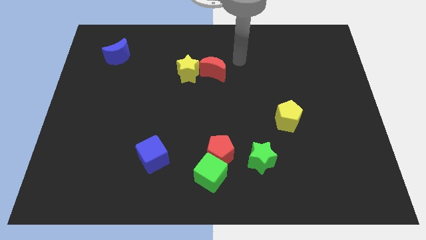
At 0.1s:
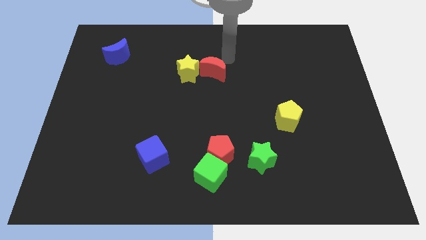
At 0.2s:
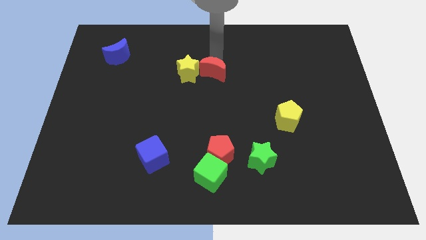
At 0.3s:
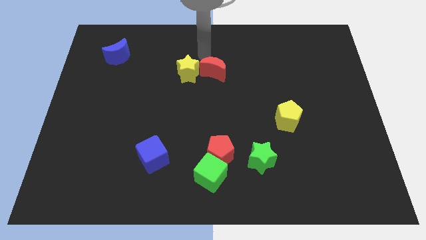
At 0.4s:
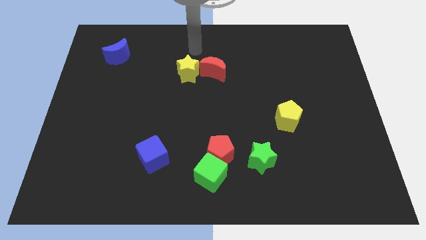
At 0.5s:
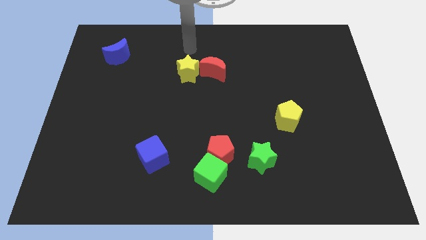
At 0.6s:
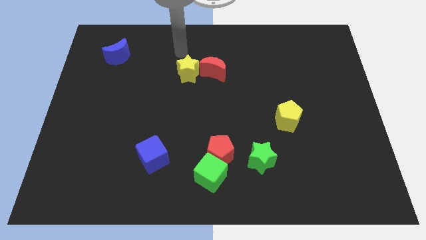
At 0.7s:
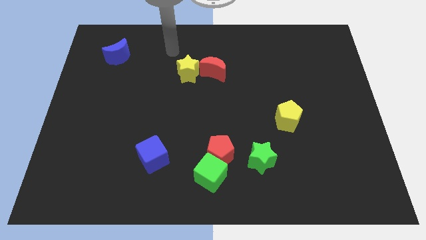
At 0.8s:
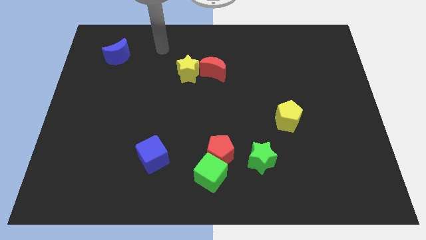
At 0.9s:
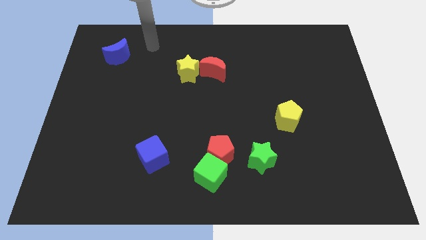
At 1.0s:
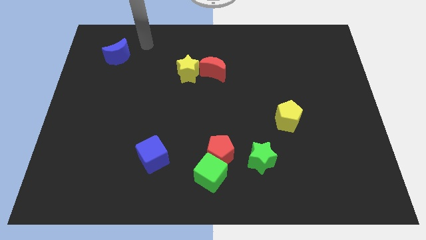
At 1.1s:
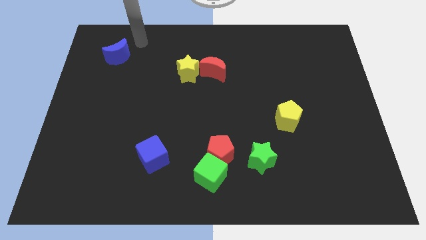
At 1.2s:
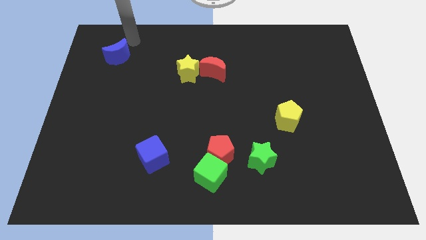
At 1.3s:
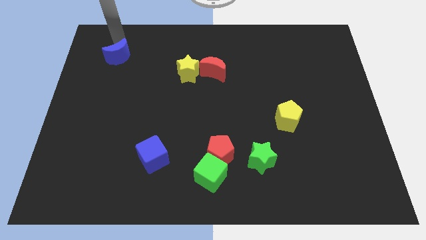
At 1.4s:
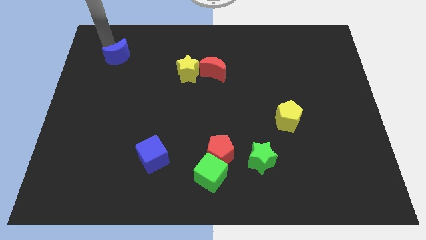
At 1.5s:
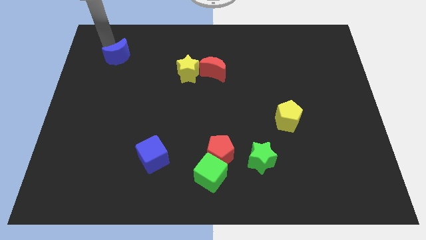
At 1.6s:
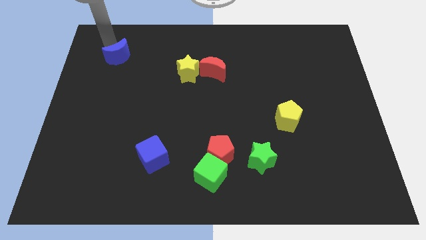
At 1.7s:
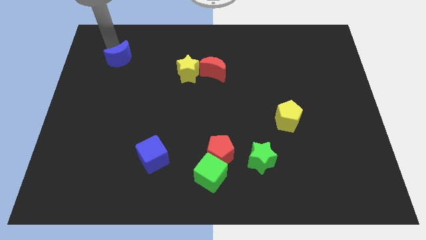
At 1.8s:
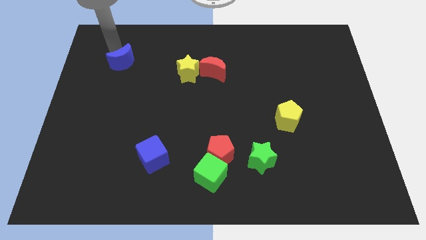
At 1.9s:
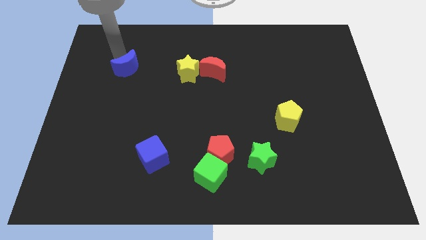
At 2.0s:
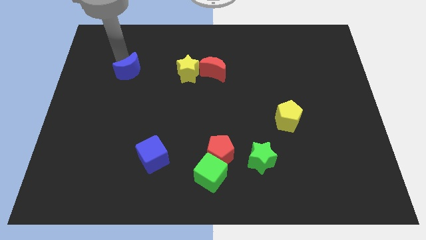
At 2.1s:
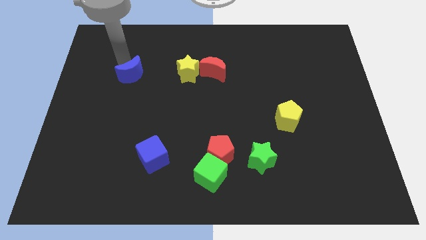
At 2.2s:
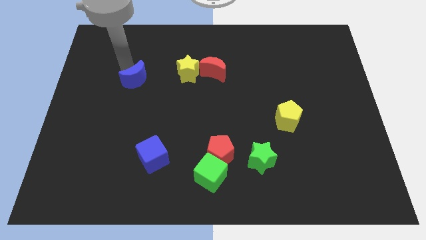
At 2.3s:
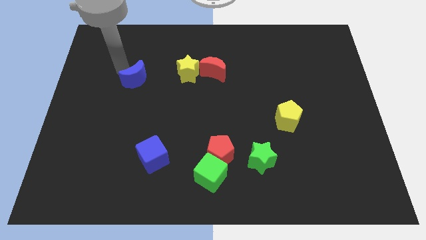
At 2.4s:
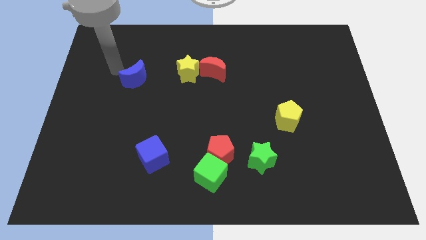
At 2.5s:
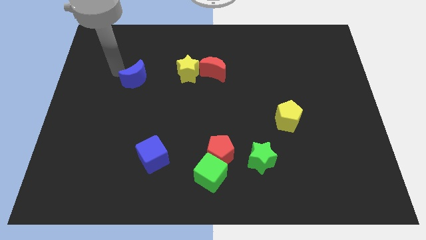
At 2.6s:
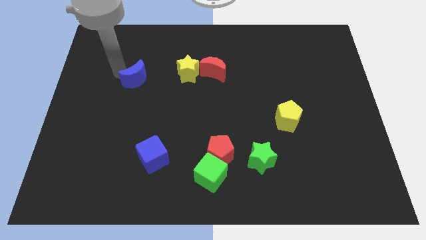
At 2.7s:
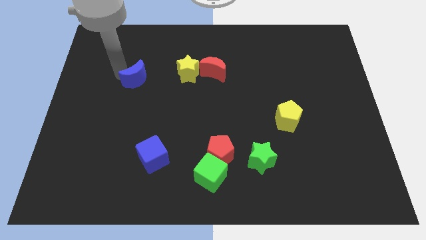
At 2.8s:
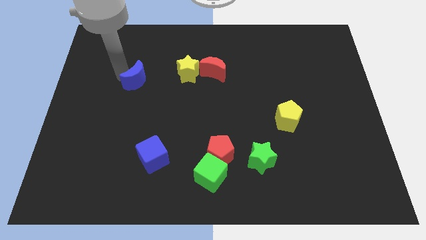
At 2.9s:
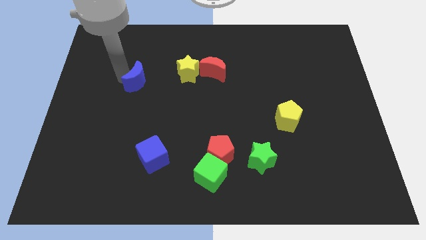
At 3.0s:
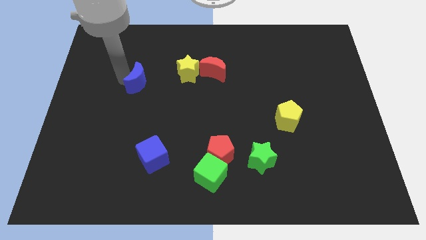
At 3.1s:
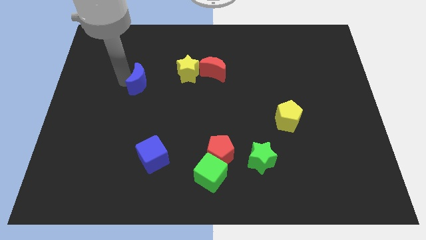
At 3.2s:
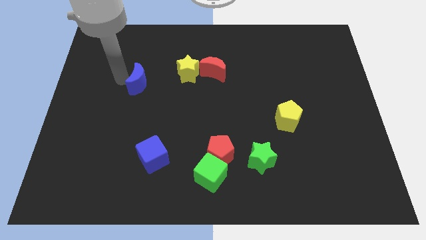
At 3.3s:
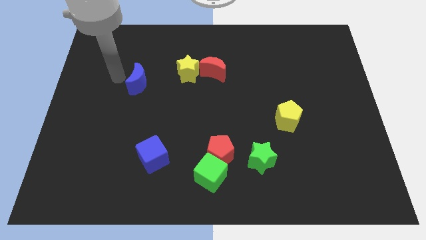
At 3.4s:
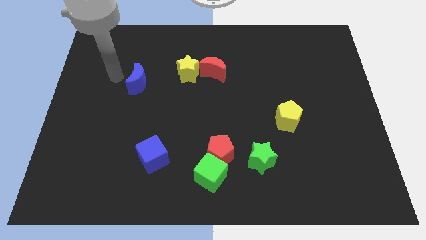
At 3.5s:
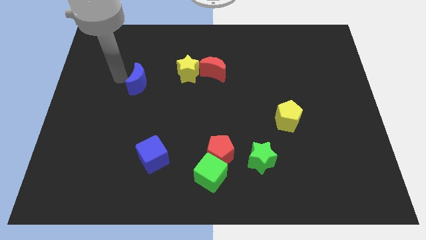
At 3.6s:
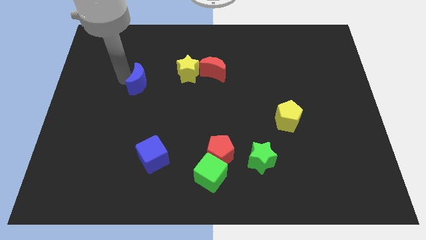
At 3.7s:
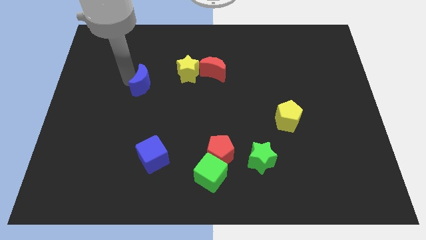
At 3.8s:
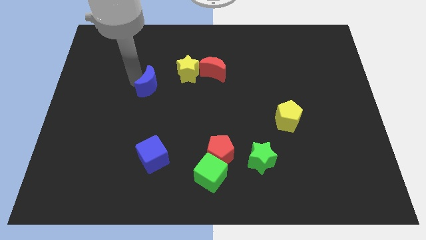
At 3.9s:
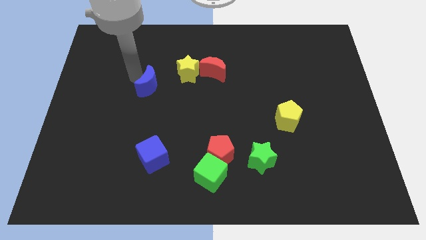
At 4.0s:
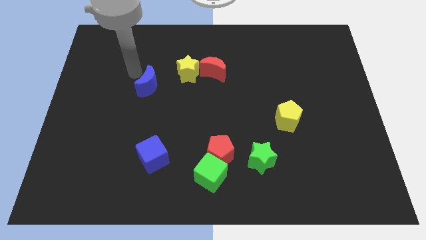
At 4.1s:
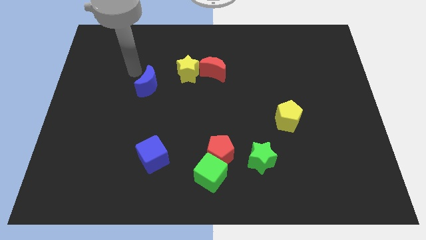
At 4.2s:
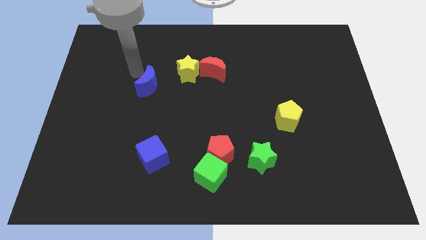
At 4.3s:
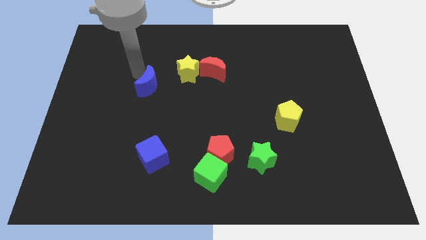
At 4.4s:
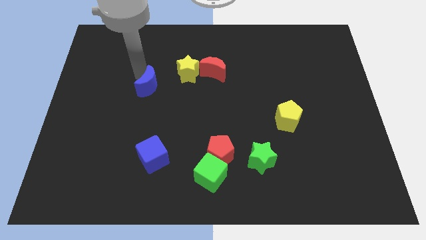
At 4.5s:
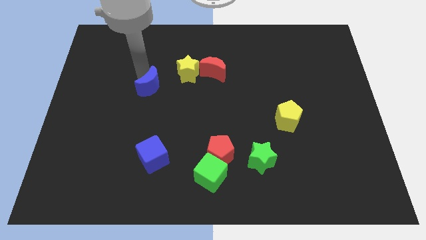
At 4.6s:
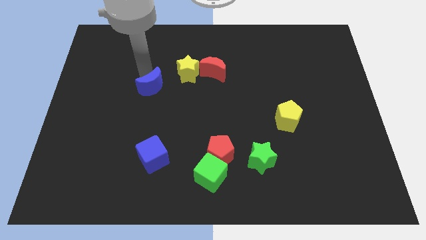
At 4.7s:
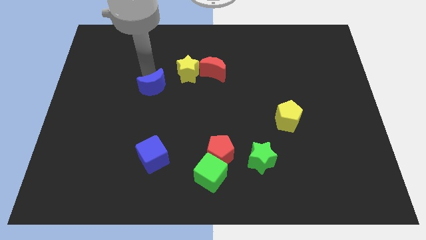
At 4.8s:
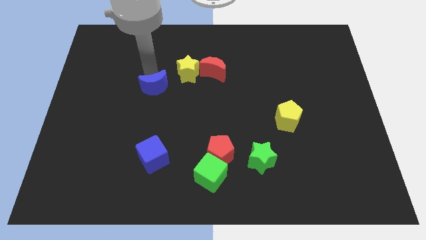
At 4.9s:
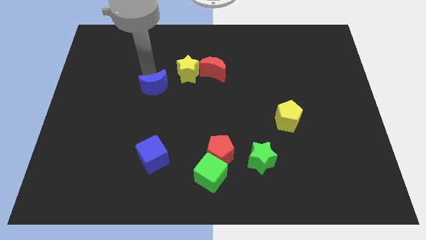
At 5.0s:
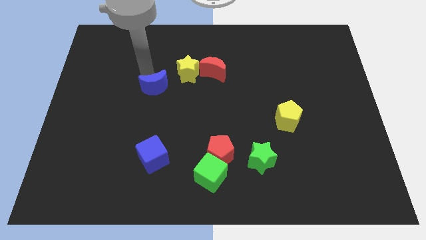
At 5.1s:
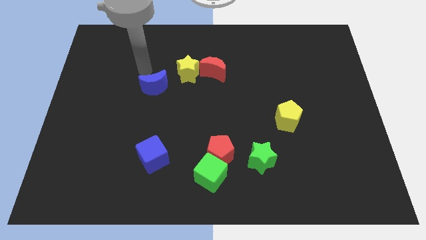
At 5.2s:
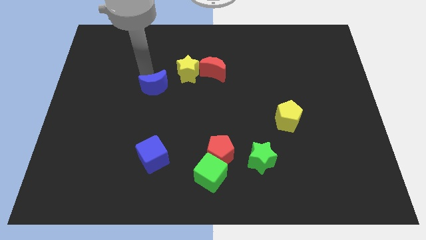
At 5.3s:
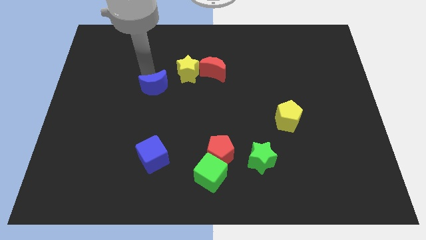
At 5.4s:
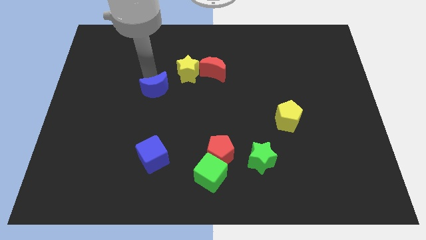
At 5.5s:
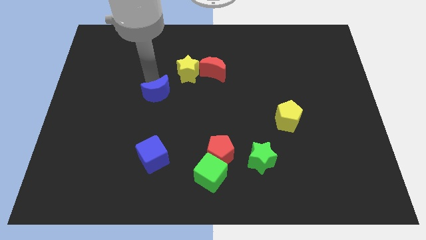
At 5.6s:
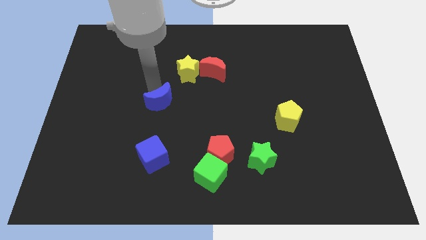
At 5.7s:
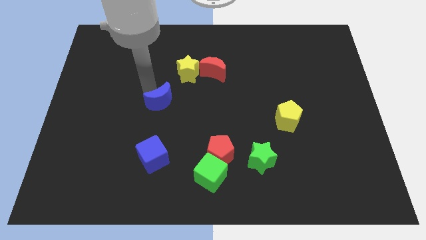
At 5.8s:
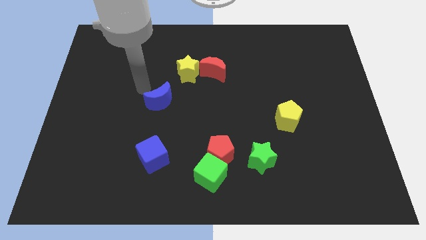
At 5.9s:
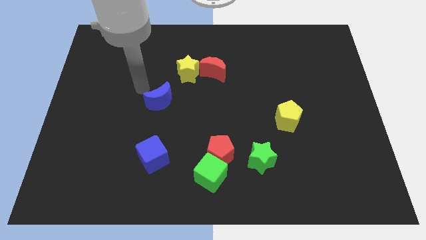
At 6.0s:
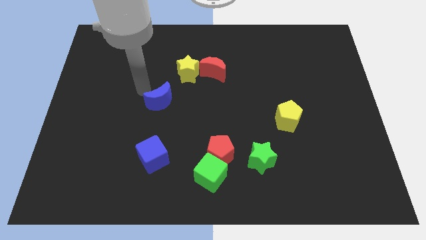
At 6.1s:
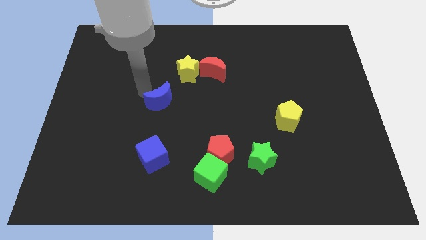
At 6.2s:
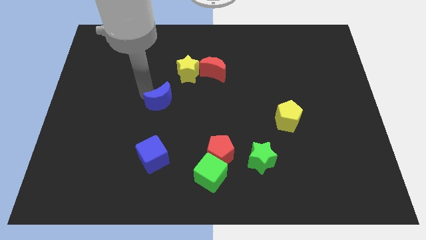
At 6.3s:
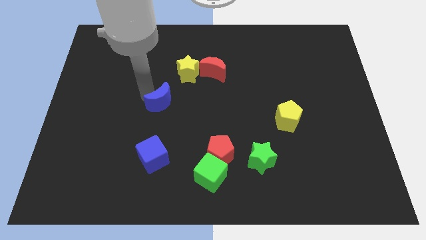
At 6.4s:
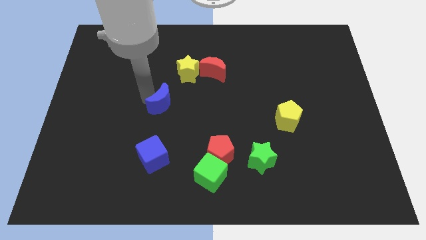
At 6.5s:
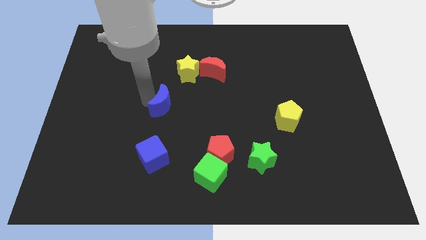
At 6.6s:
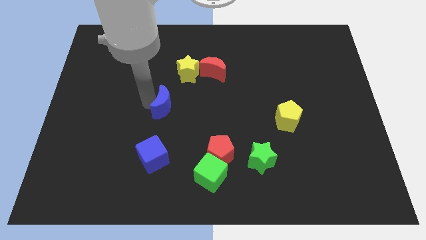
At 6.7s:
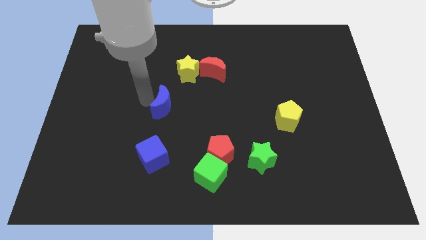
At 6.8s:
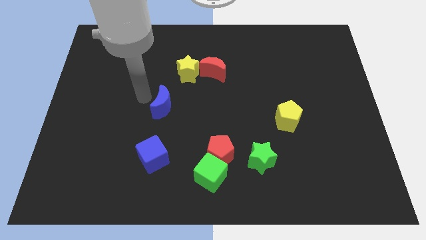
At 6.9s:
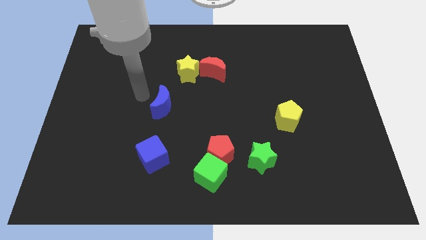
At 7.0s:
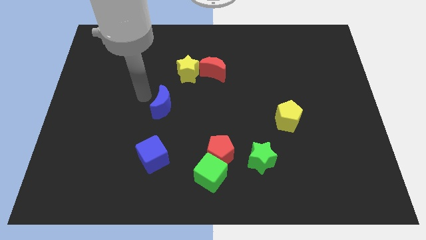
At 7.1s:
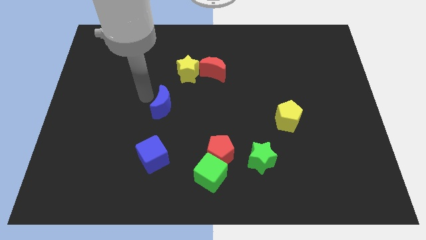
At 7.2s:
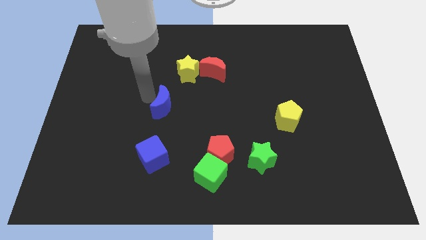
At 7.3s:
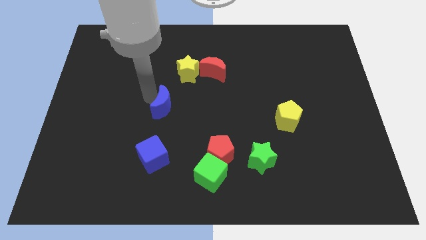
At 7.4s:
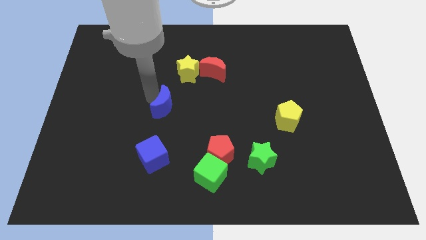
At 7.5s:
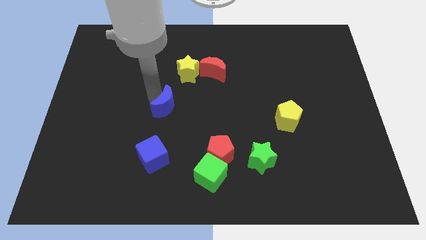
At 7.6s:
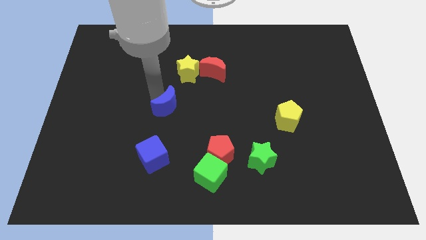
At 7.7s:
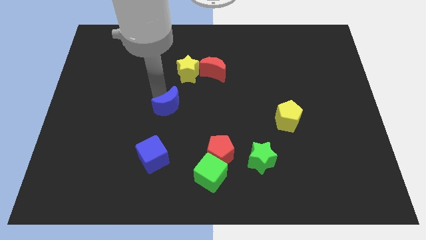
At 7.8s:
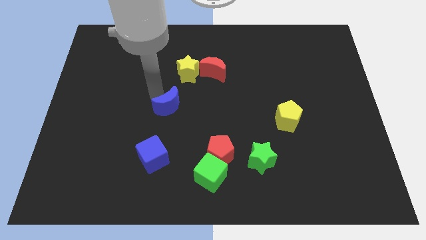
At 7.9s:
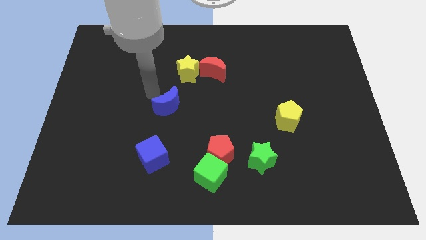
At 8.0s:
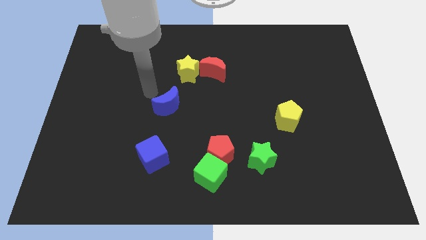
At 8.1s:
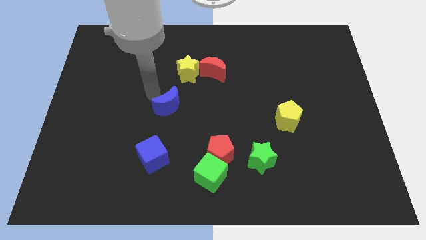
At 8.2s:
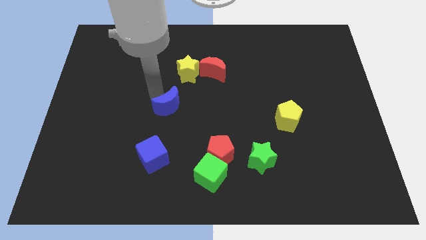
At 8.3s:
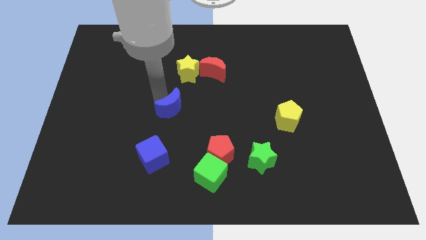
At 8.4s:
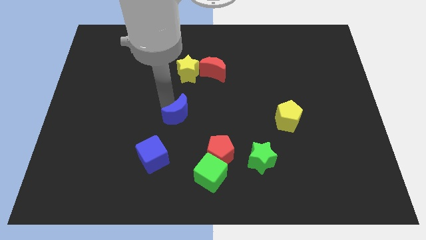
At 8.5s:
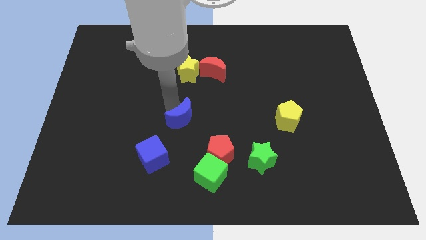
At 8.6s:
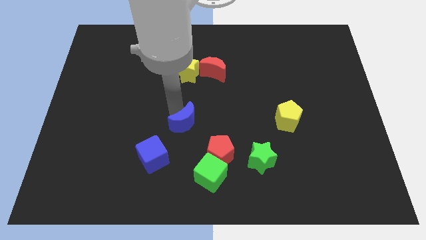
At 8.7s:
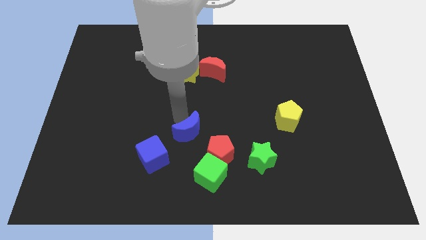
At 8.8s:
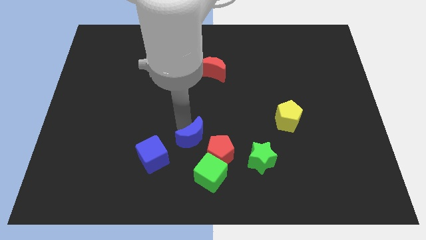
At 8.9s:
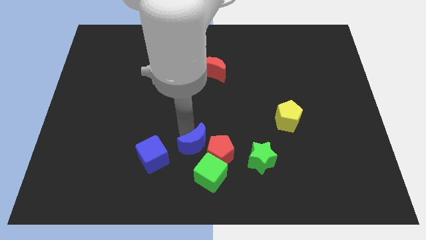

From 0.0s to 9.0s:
move the blue moon to the red pentagon
